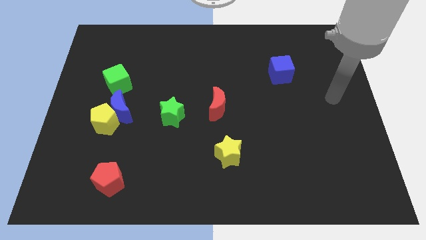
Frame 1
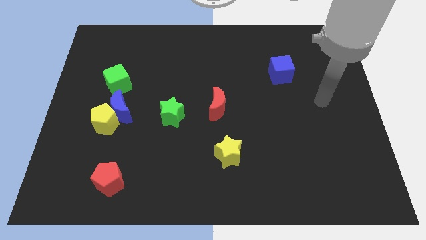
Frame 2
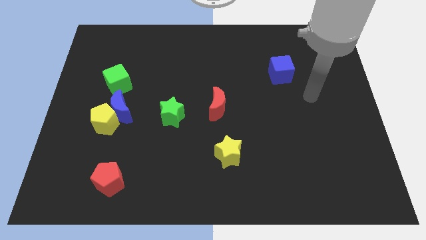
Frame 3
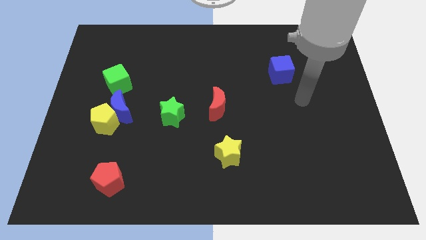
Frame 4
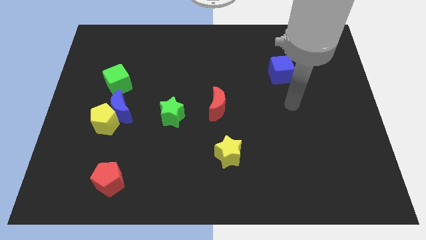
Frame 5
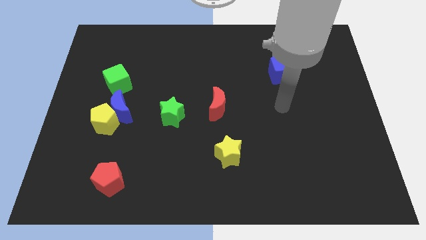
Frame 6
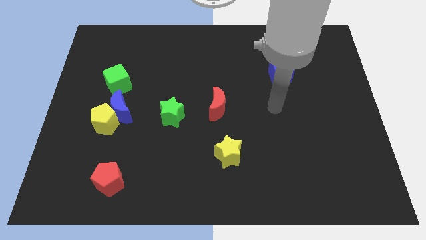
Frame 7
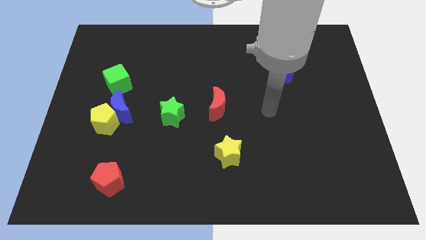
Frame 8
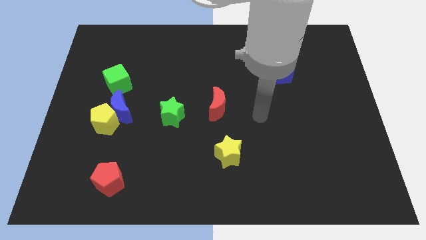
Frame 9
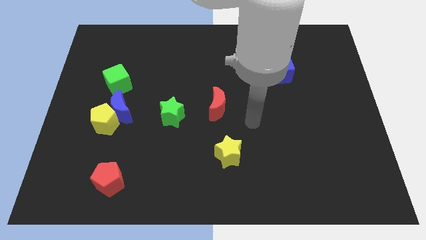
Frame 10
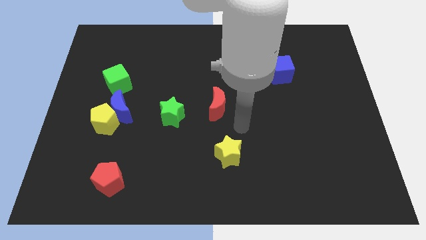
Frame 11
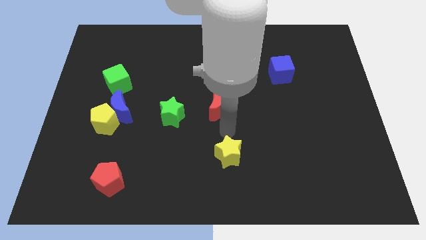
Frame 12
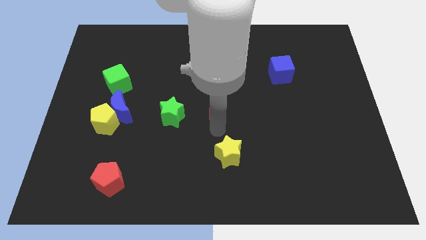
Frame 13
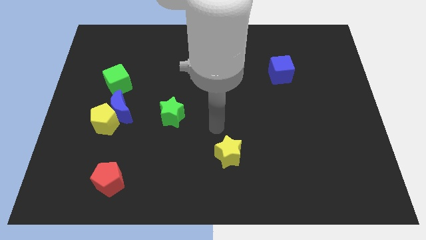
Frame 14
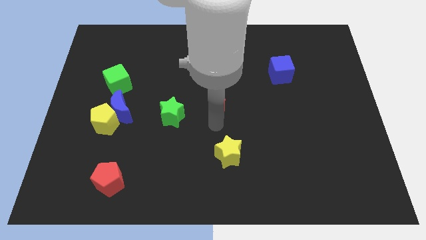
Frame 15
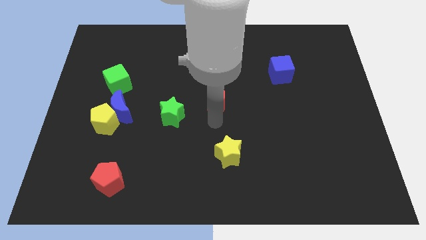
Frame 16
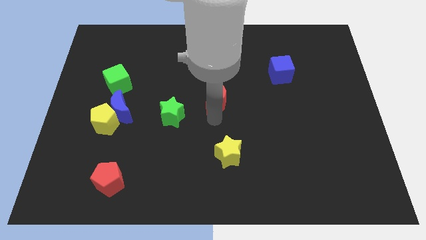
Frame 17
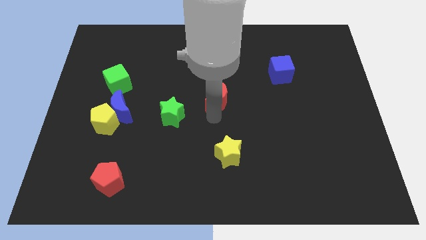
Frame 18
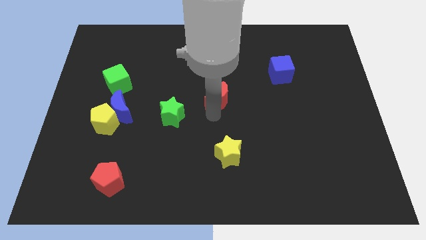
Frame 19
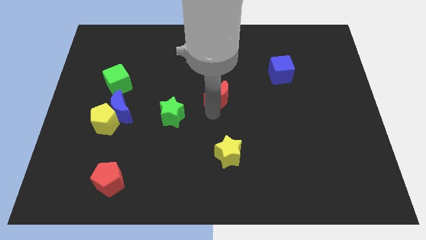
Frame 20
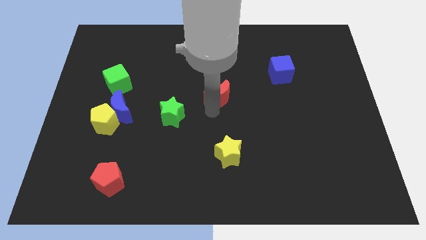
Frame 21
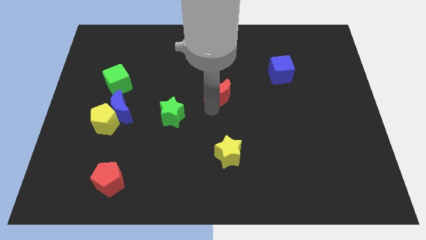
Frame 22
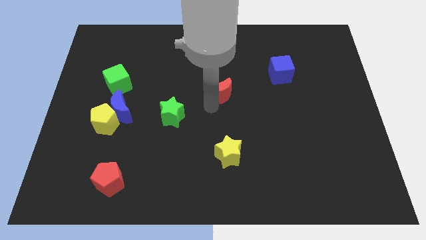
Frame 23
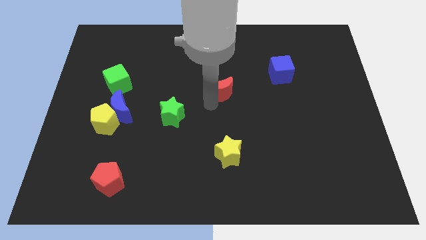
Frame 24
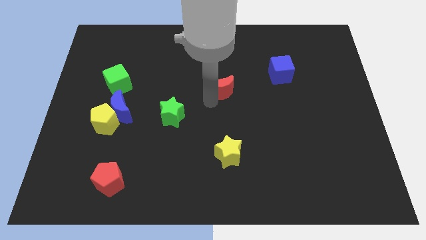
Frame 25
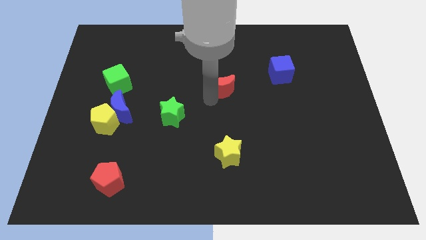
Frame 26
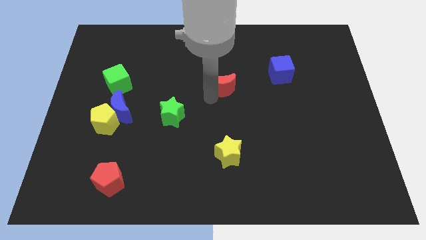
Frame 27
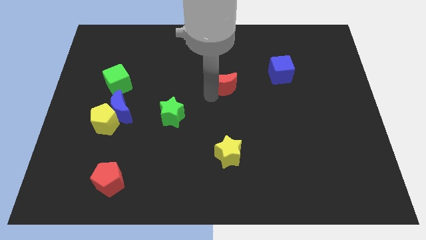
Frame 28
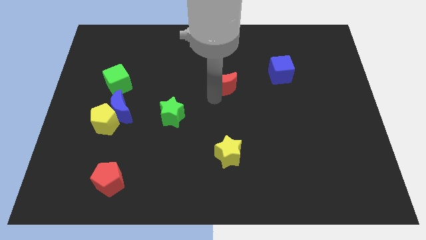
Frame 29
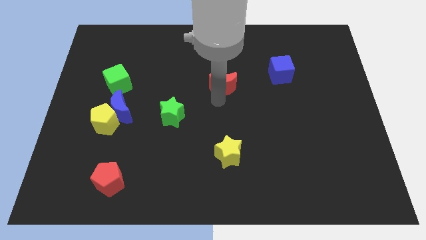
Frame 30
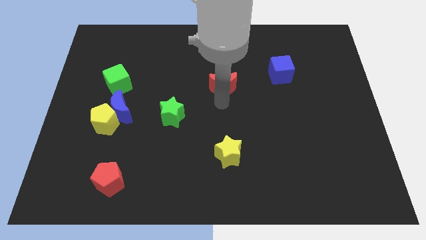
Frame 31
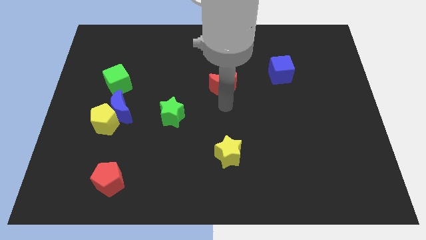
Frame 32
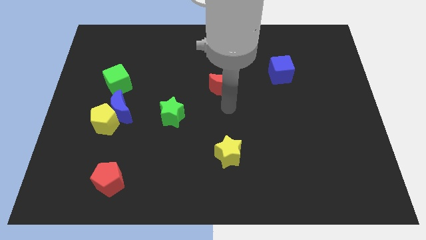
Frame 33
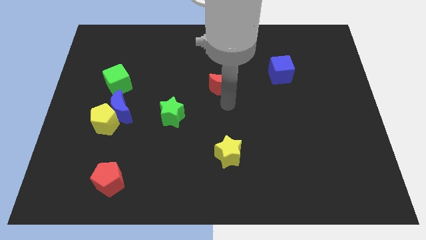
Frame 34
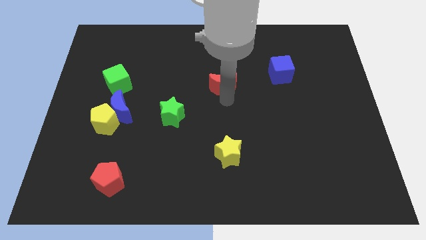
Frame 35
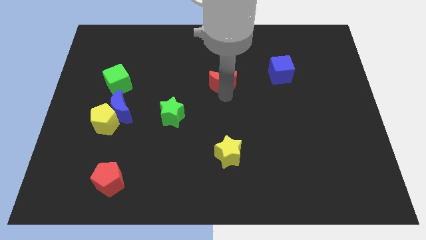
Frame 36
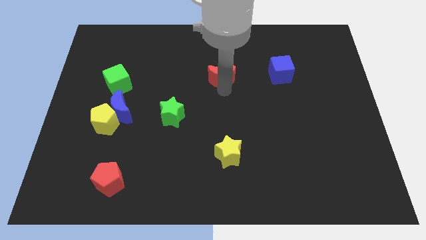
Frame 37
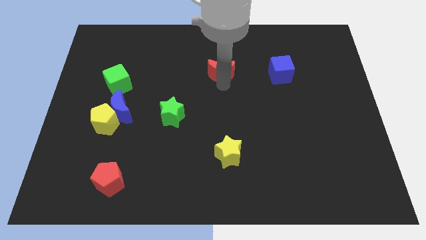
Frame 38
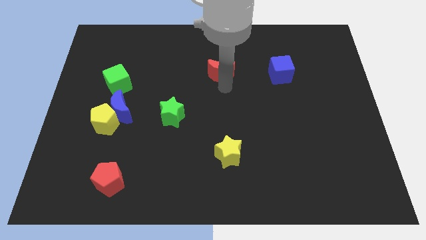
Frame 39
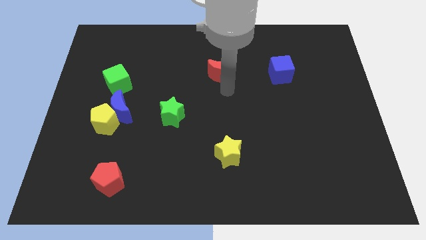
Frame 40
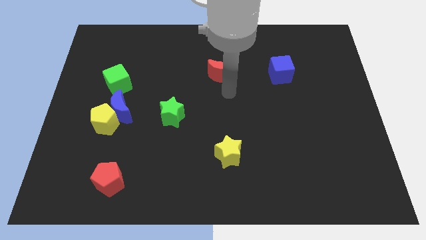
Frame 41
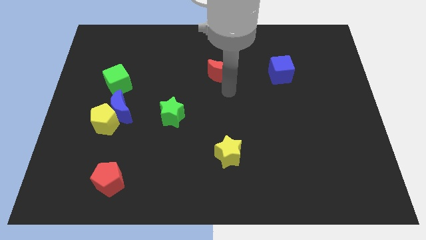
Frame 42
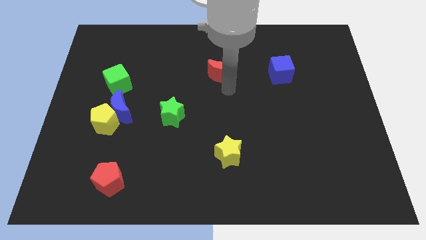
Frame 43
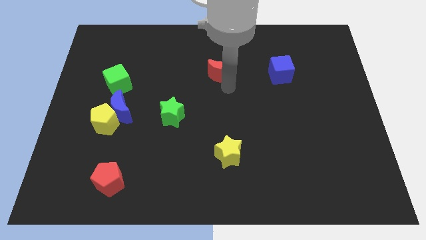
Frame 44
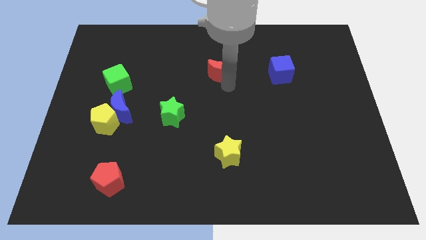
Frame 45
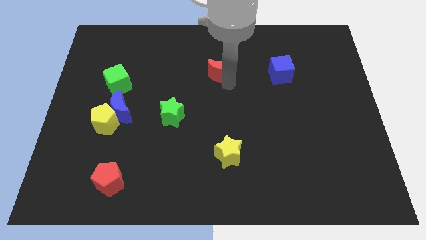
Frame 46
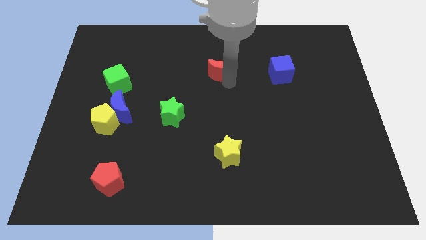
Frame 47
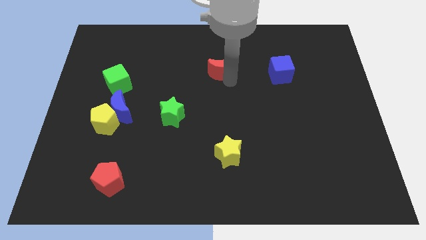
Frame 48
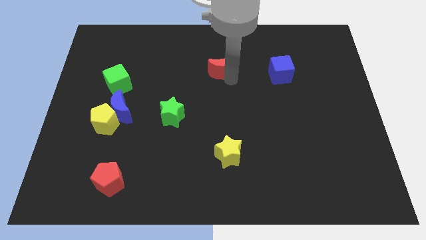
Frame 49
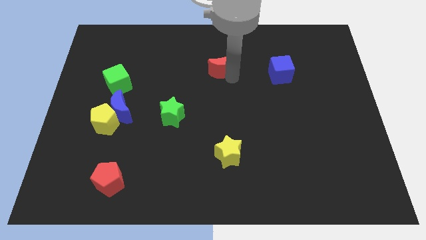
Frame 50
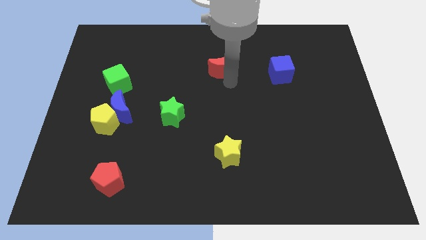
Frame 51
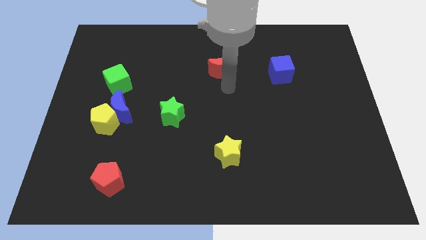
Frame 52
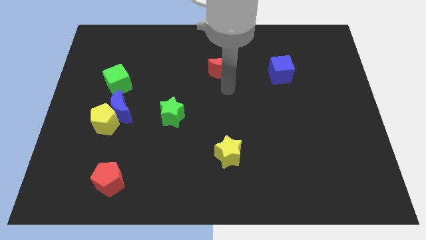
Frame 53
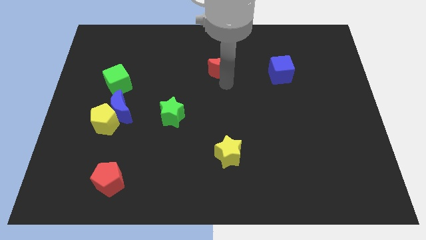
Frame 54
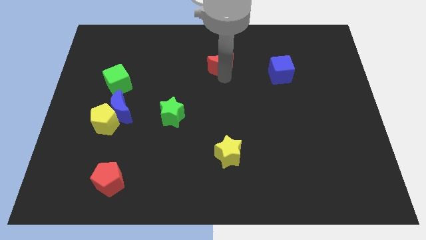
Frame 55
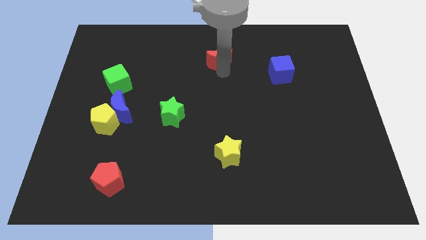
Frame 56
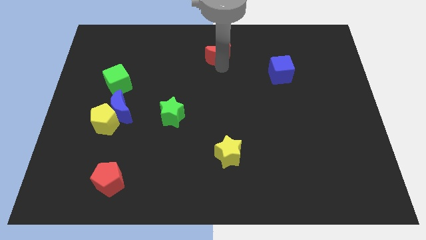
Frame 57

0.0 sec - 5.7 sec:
push the red moon to the towards your base

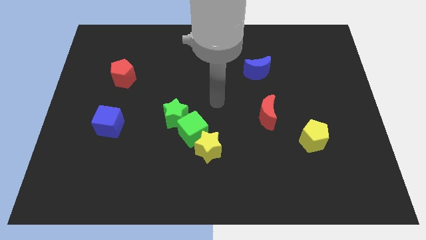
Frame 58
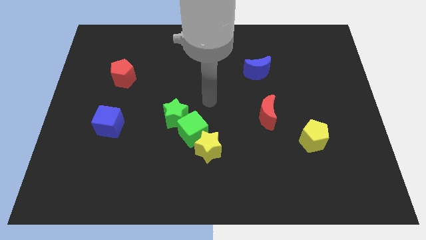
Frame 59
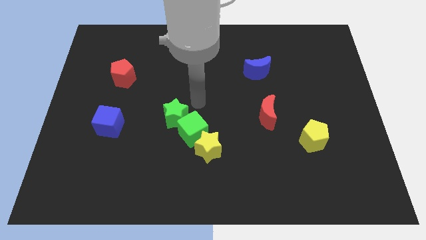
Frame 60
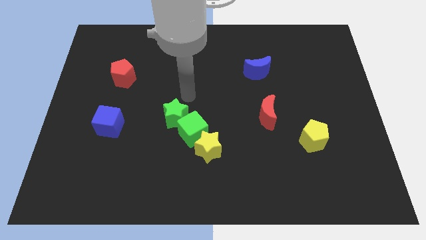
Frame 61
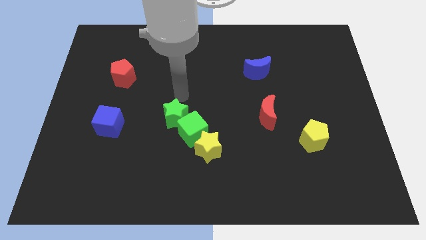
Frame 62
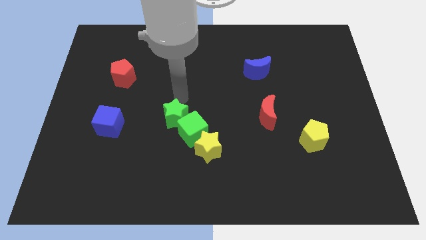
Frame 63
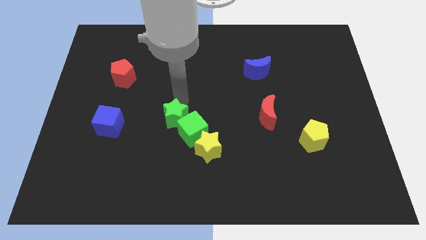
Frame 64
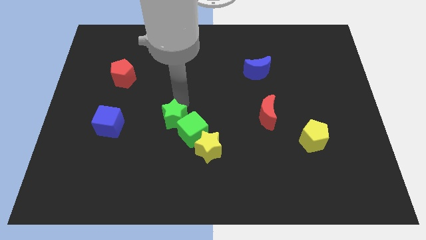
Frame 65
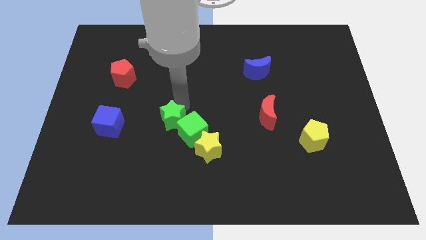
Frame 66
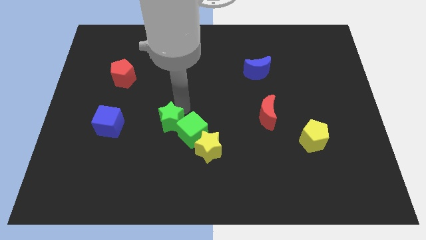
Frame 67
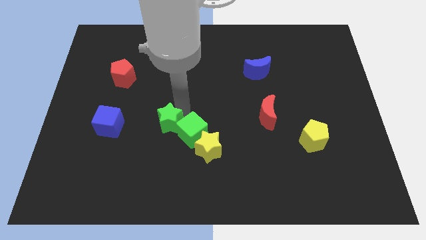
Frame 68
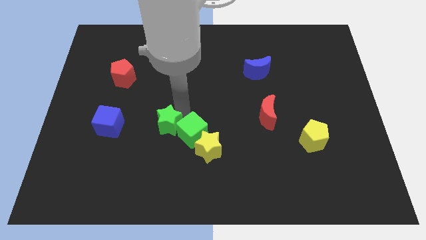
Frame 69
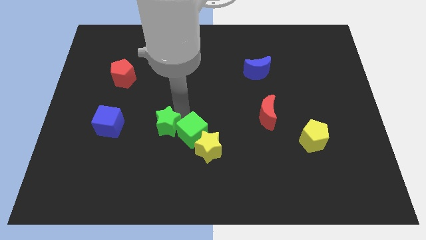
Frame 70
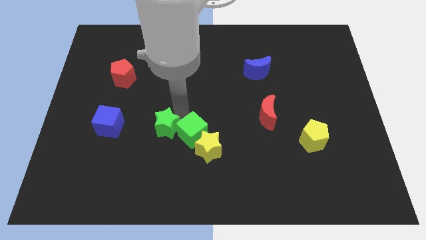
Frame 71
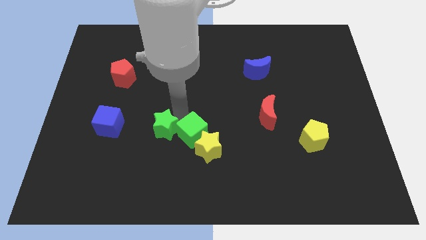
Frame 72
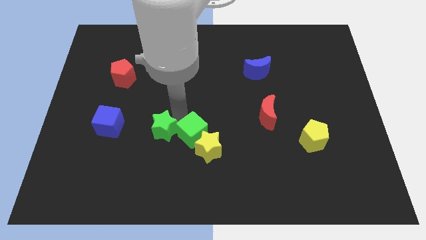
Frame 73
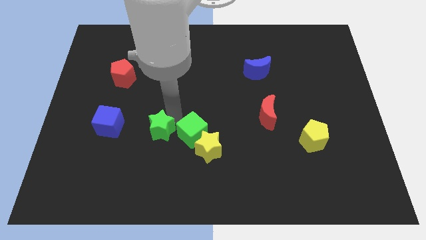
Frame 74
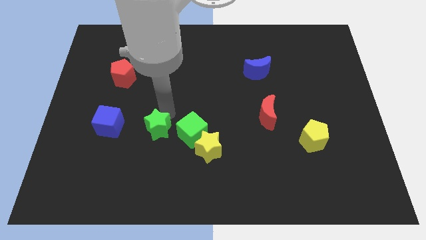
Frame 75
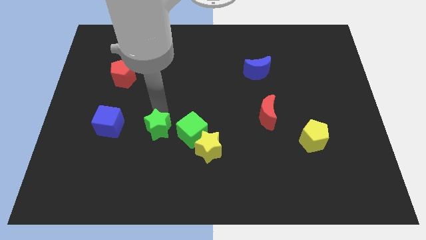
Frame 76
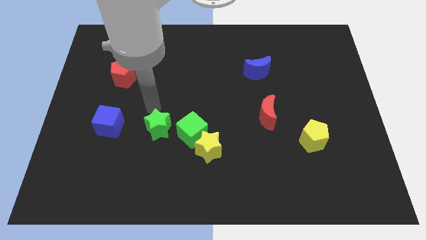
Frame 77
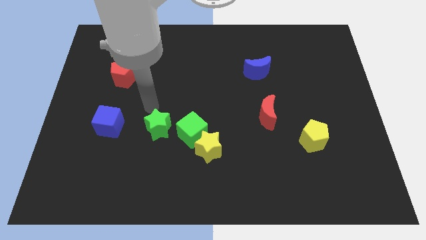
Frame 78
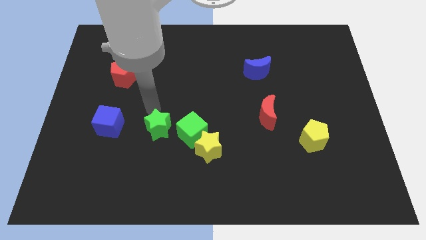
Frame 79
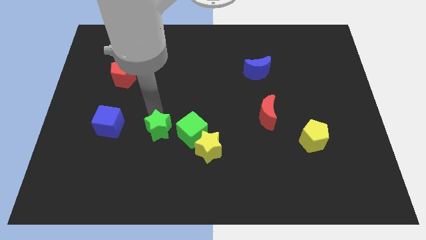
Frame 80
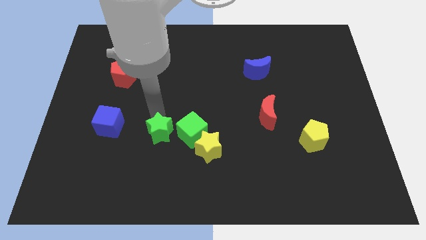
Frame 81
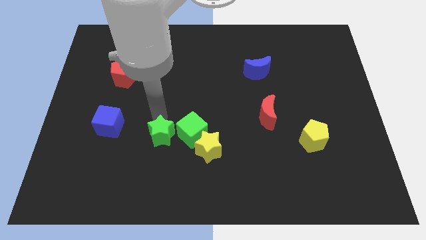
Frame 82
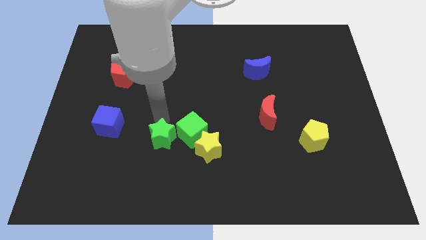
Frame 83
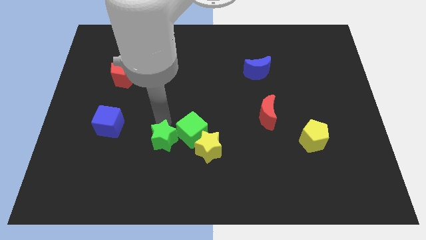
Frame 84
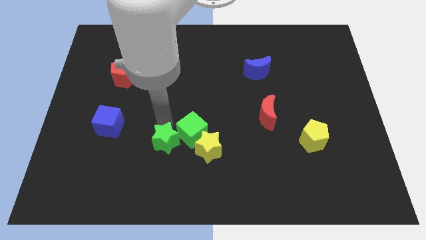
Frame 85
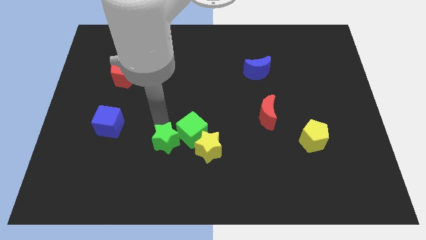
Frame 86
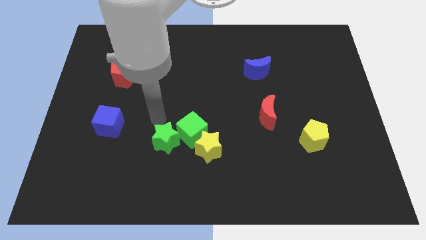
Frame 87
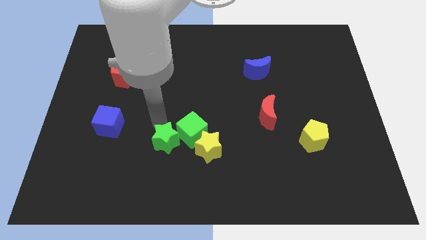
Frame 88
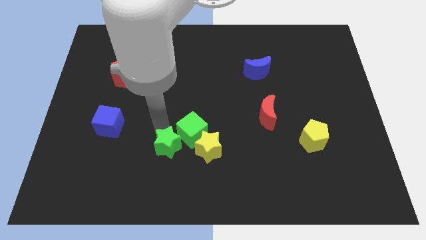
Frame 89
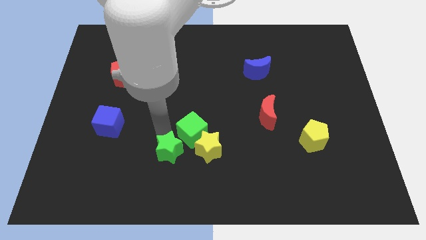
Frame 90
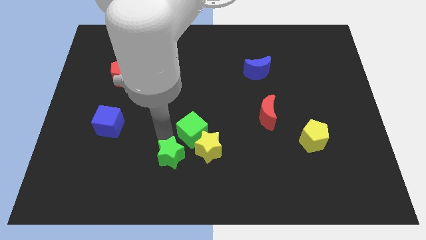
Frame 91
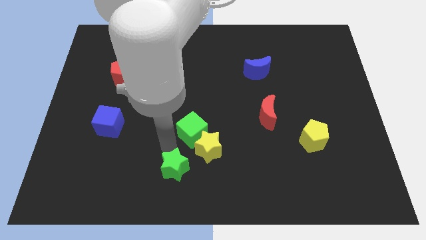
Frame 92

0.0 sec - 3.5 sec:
slide the green star to the bottom side
